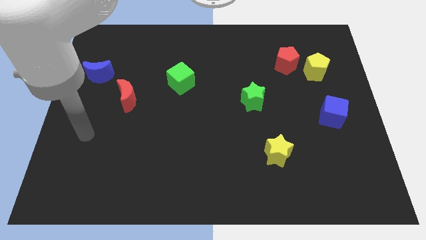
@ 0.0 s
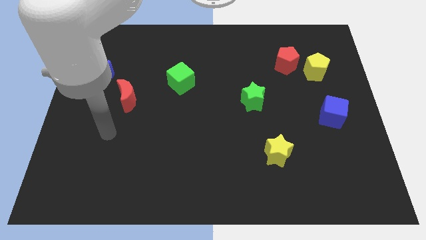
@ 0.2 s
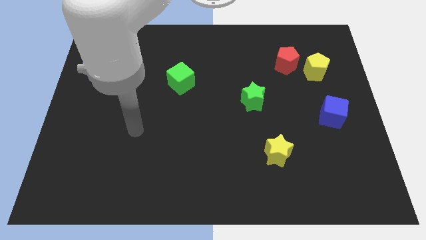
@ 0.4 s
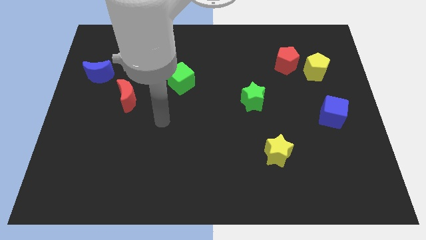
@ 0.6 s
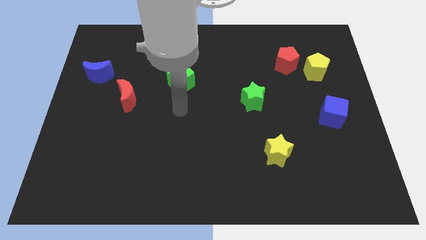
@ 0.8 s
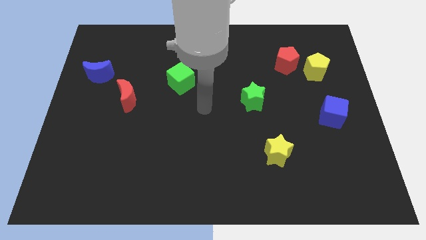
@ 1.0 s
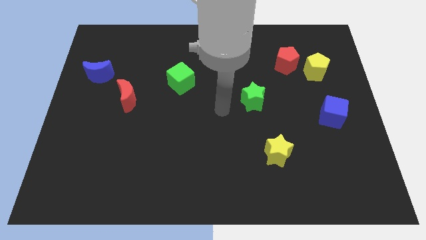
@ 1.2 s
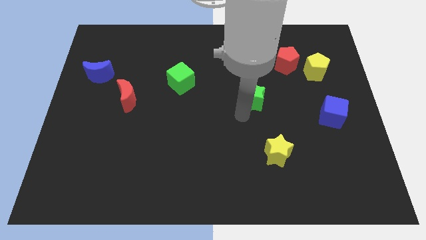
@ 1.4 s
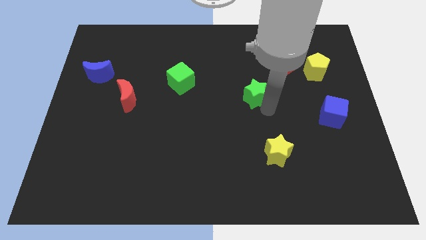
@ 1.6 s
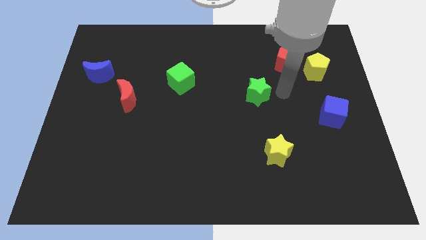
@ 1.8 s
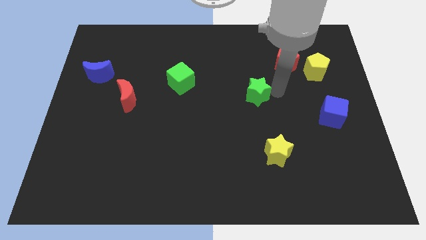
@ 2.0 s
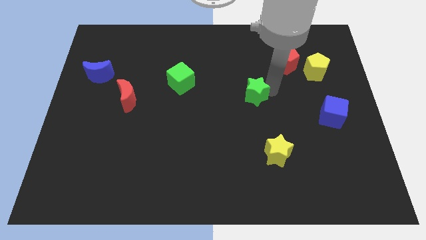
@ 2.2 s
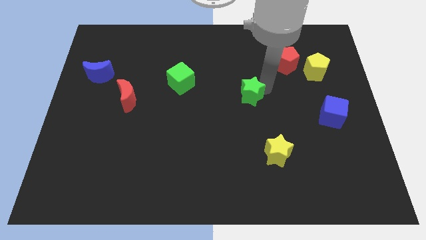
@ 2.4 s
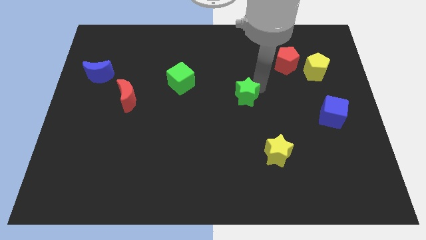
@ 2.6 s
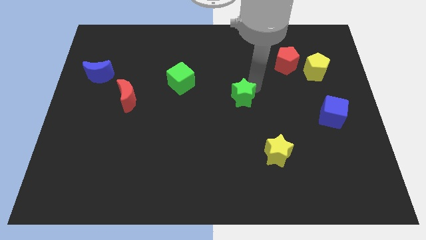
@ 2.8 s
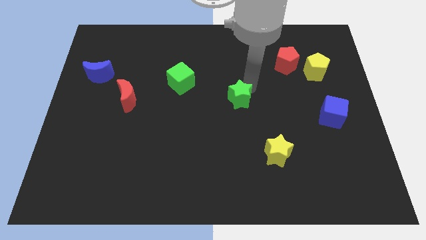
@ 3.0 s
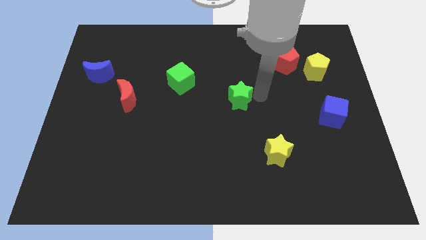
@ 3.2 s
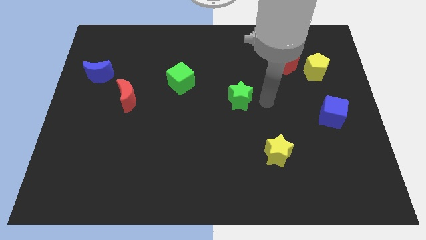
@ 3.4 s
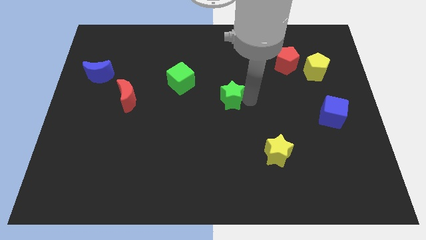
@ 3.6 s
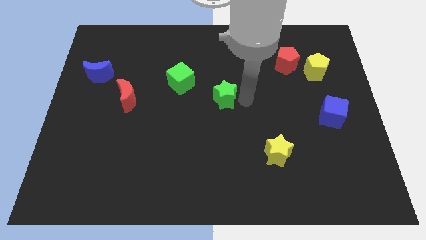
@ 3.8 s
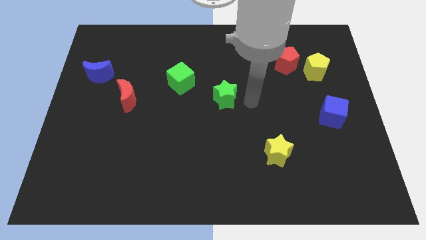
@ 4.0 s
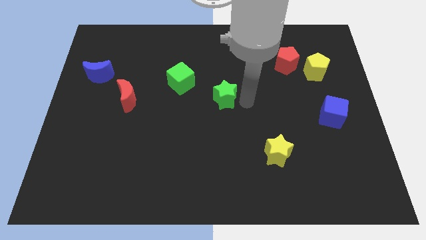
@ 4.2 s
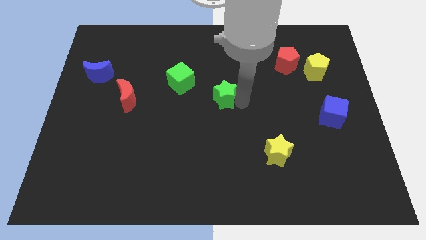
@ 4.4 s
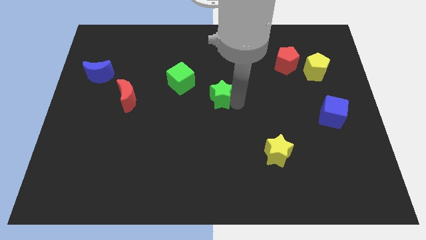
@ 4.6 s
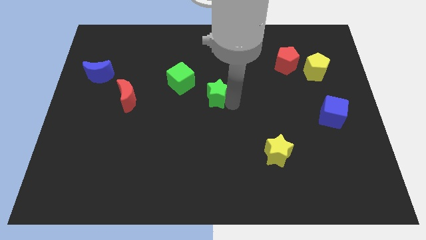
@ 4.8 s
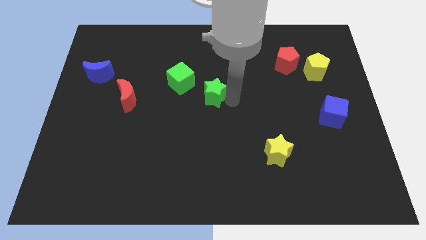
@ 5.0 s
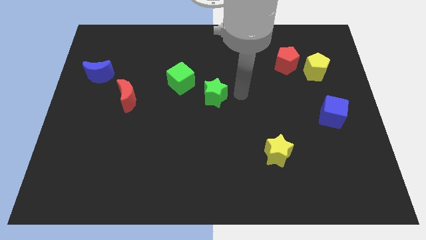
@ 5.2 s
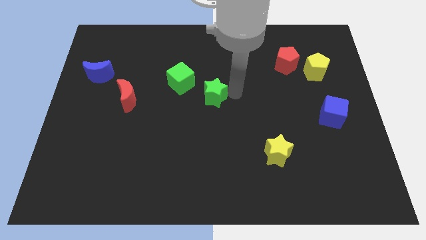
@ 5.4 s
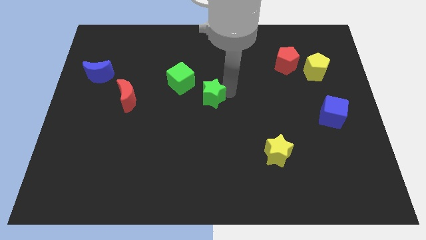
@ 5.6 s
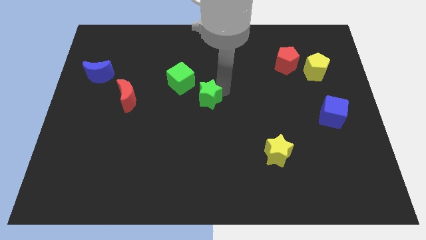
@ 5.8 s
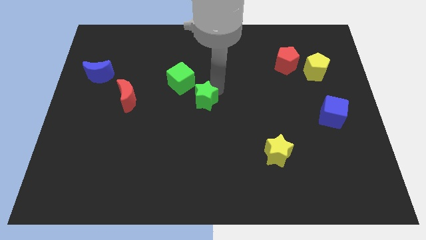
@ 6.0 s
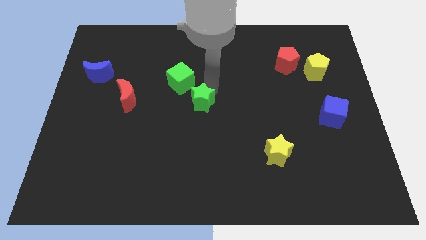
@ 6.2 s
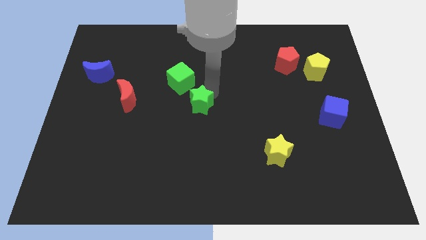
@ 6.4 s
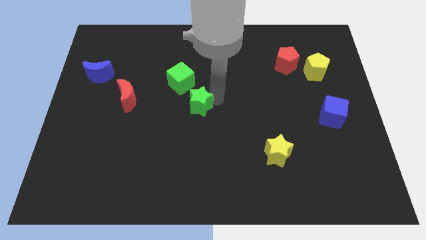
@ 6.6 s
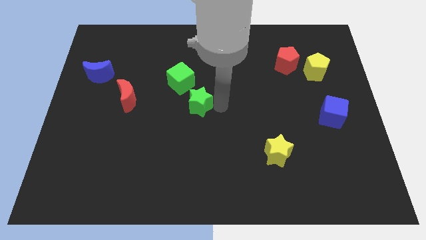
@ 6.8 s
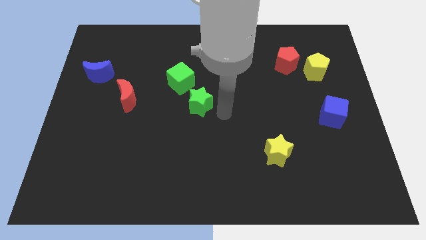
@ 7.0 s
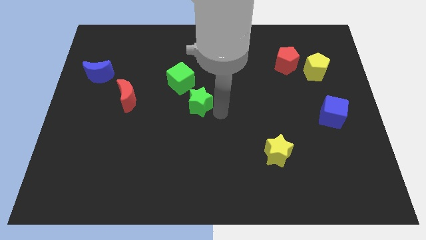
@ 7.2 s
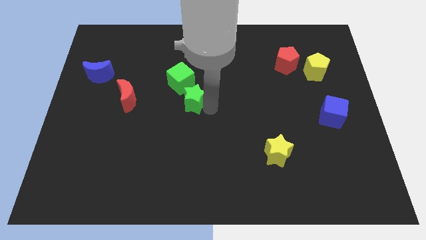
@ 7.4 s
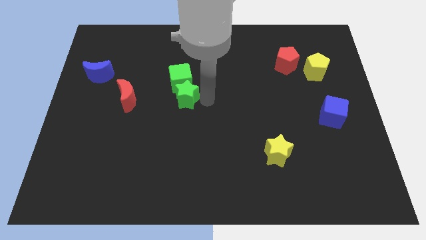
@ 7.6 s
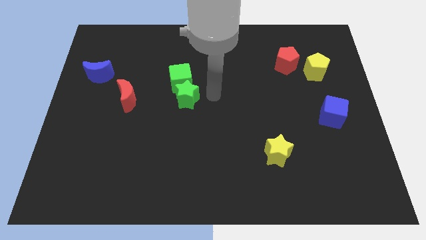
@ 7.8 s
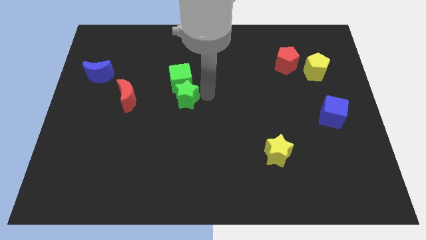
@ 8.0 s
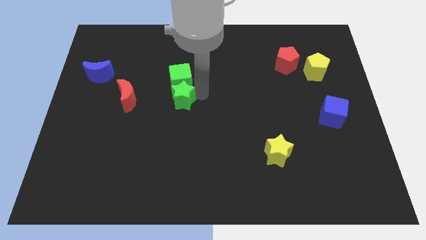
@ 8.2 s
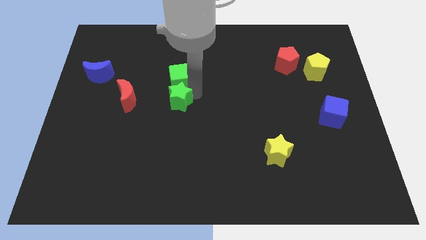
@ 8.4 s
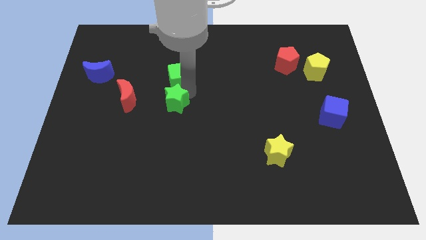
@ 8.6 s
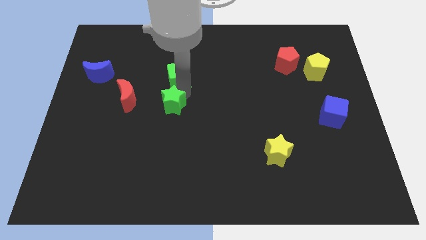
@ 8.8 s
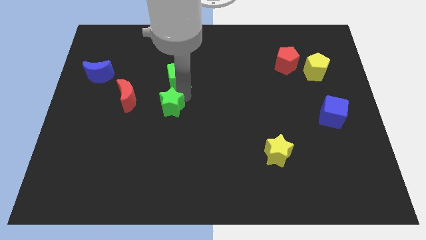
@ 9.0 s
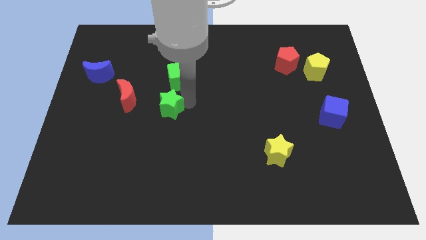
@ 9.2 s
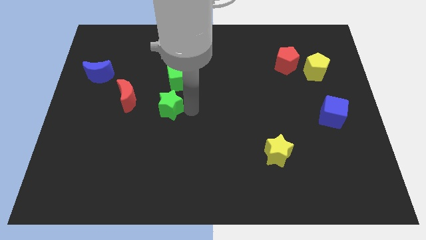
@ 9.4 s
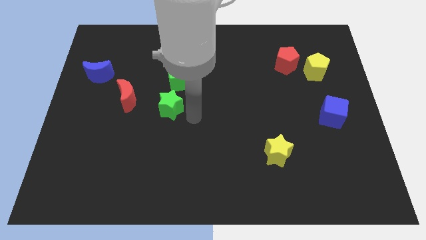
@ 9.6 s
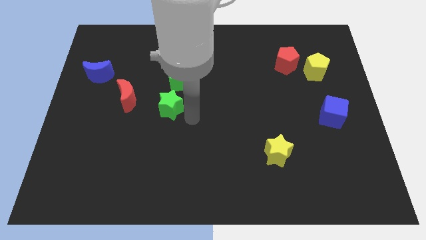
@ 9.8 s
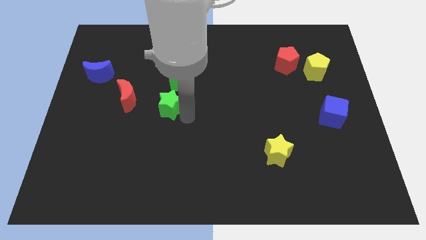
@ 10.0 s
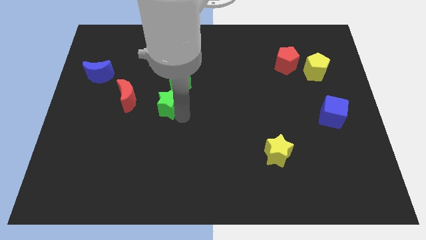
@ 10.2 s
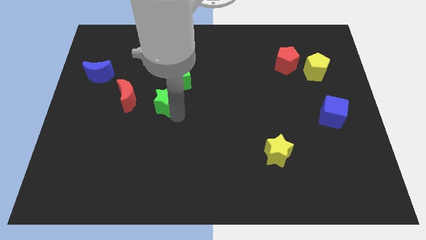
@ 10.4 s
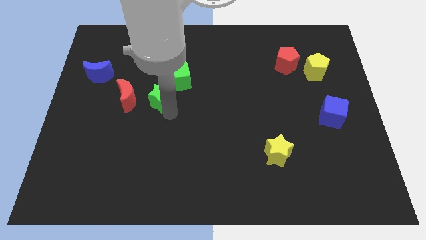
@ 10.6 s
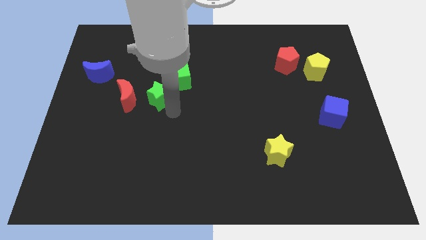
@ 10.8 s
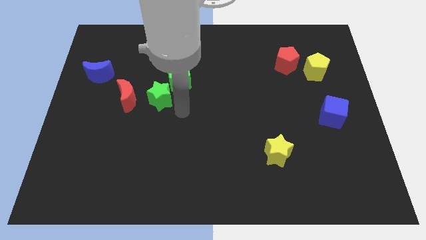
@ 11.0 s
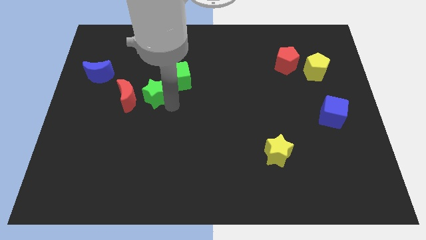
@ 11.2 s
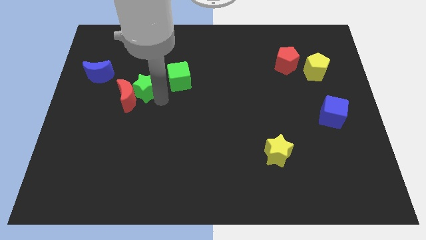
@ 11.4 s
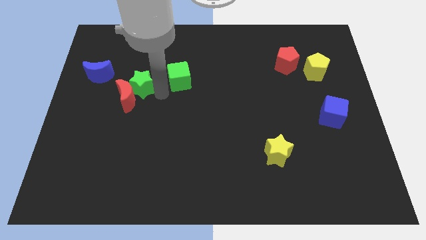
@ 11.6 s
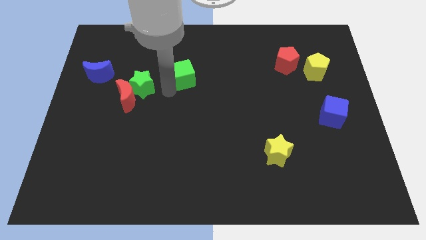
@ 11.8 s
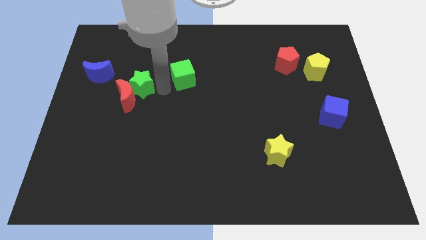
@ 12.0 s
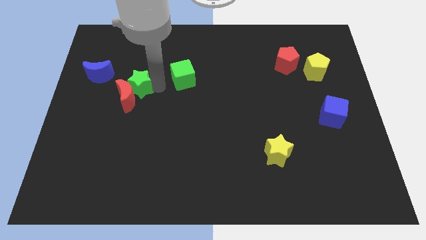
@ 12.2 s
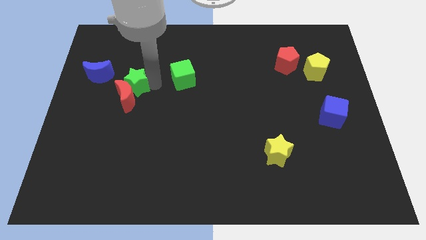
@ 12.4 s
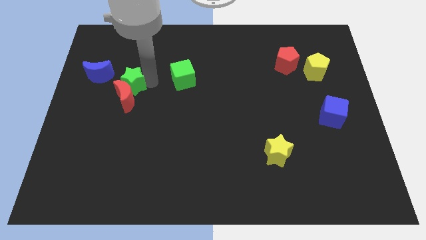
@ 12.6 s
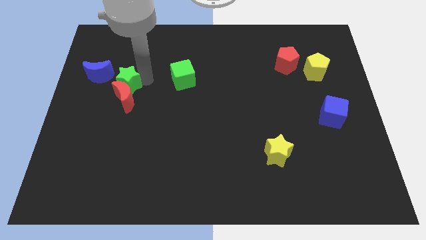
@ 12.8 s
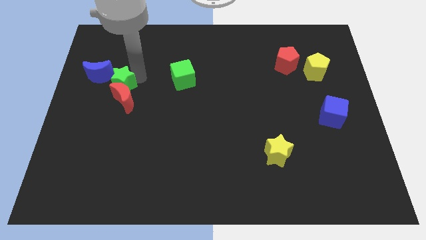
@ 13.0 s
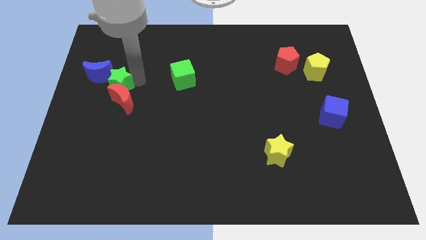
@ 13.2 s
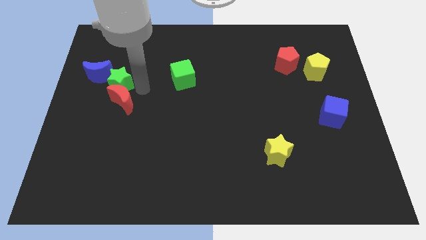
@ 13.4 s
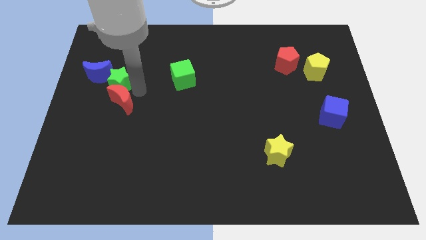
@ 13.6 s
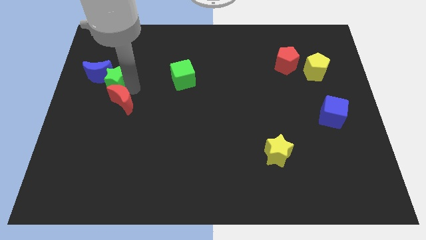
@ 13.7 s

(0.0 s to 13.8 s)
move the green star close to the blue moon

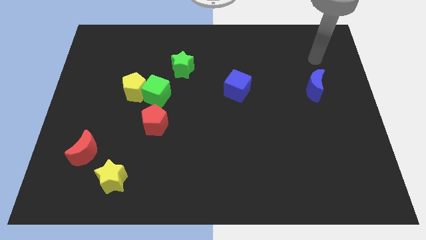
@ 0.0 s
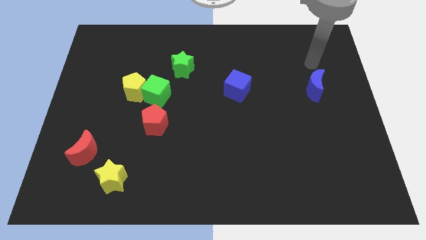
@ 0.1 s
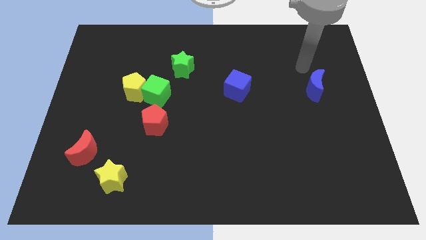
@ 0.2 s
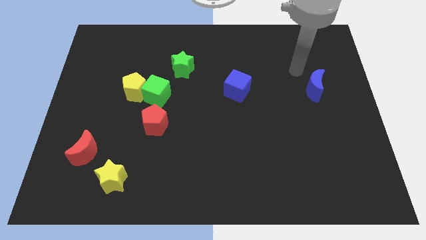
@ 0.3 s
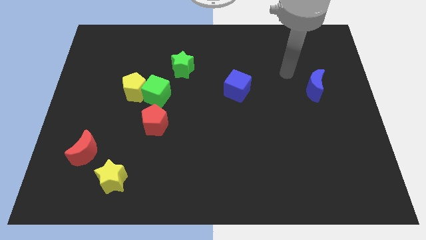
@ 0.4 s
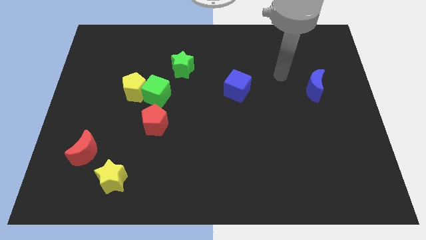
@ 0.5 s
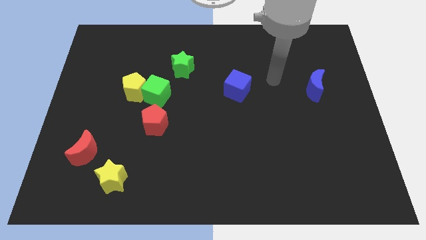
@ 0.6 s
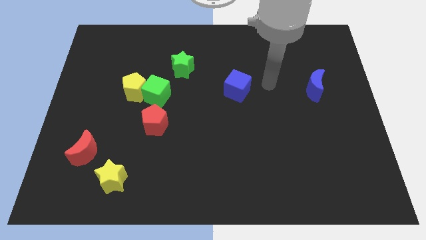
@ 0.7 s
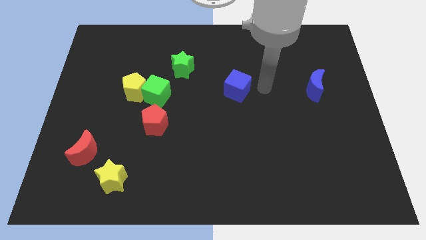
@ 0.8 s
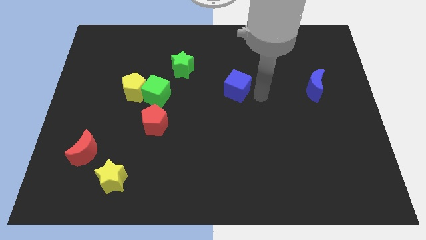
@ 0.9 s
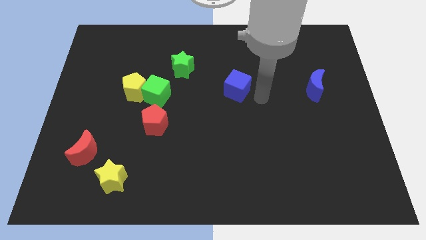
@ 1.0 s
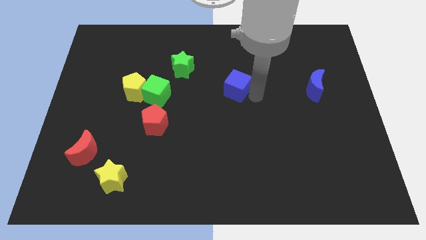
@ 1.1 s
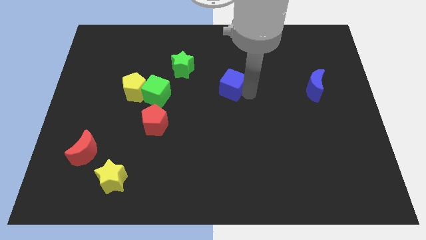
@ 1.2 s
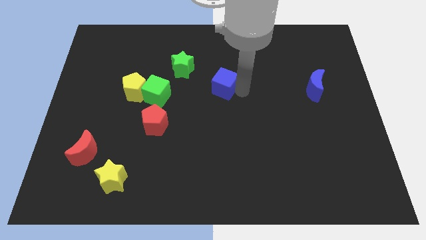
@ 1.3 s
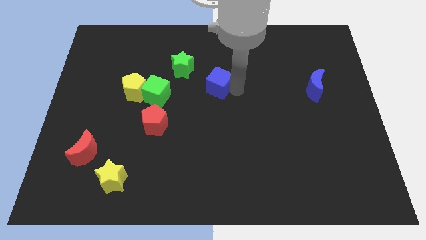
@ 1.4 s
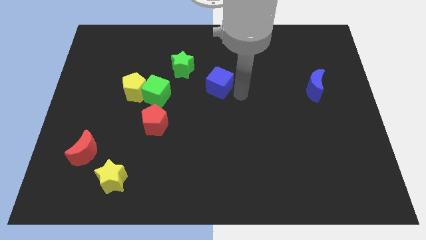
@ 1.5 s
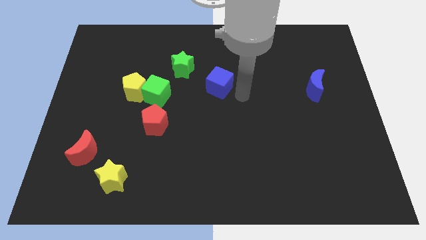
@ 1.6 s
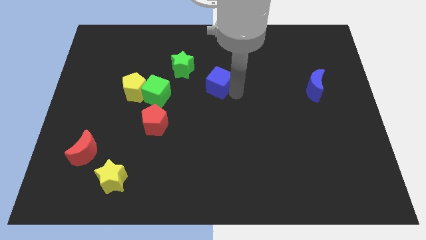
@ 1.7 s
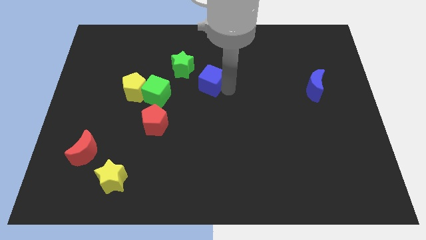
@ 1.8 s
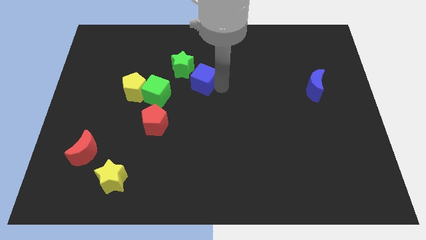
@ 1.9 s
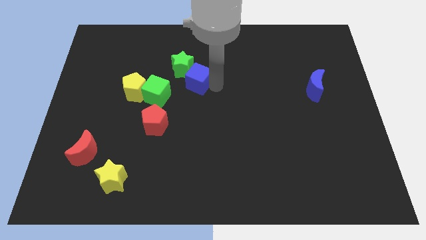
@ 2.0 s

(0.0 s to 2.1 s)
put the blue cube to the green star
